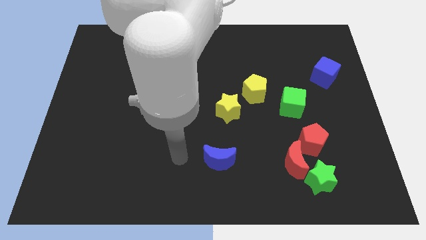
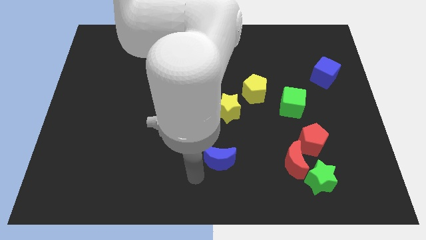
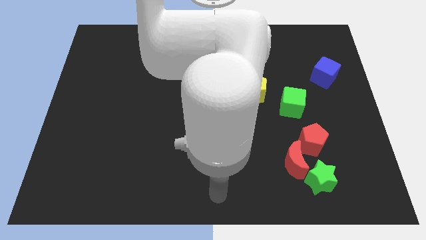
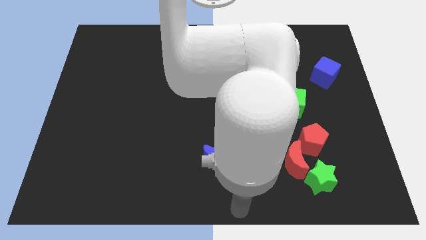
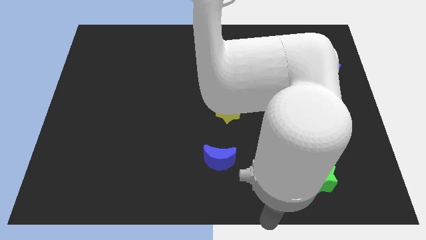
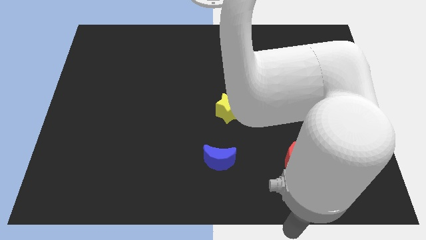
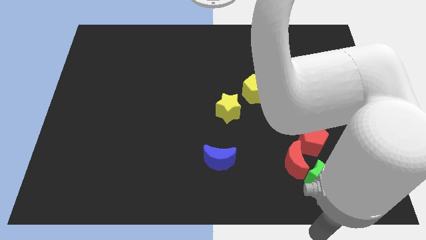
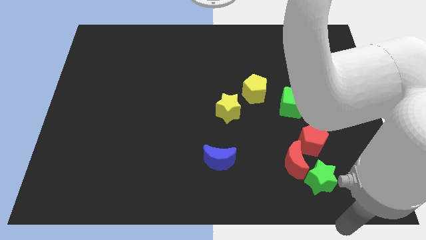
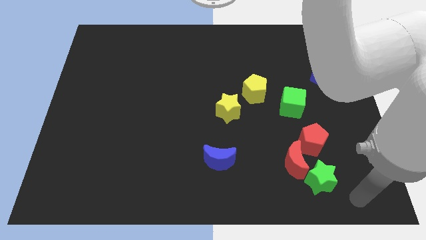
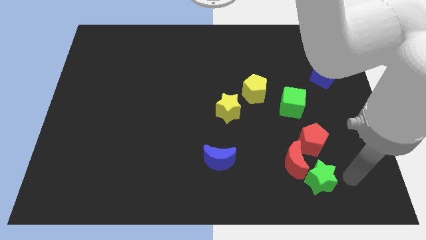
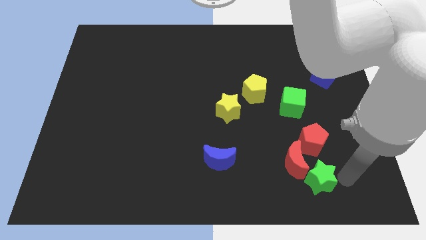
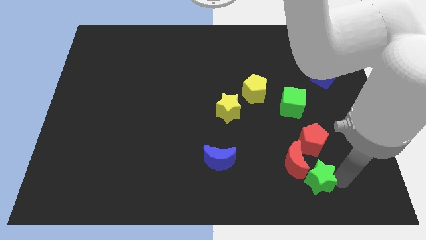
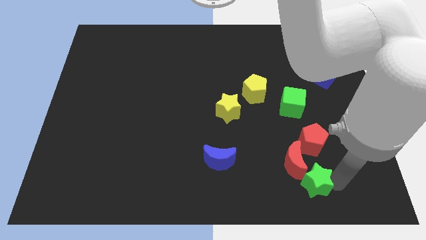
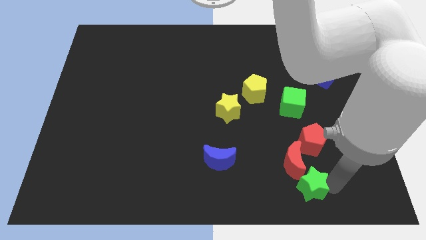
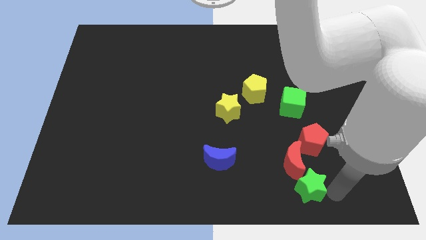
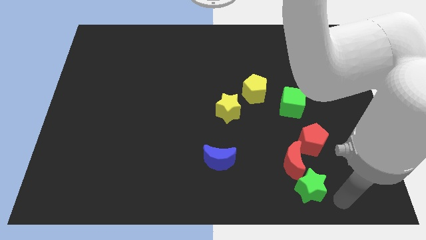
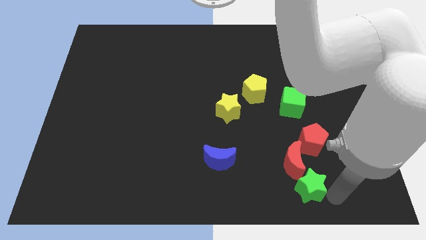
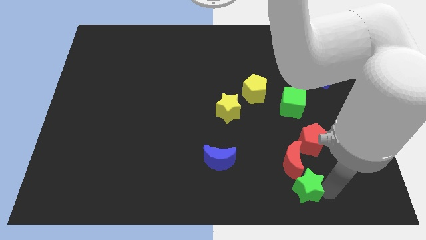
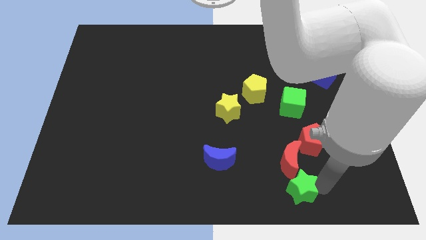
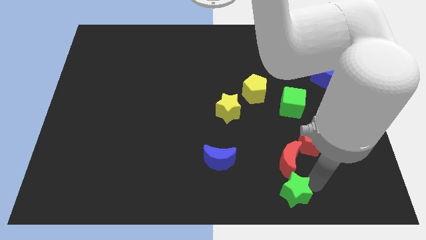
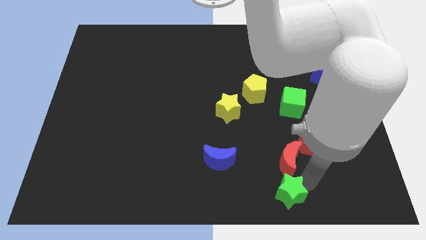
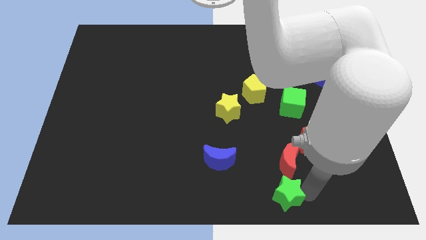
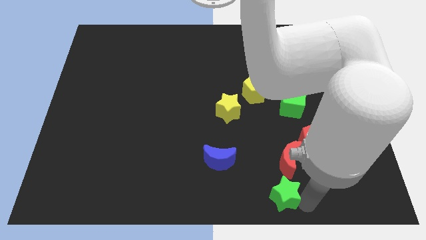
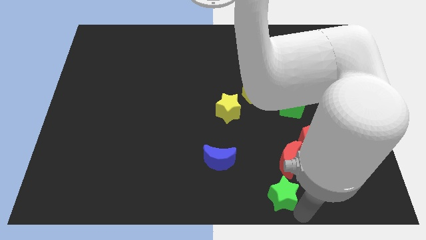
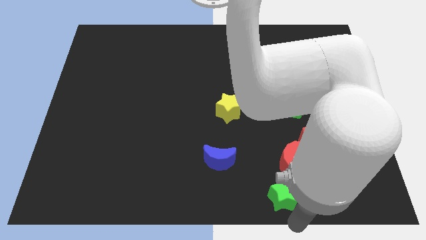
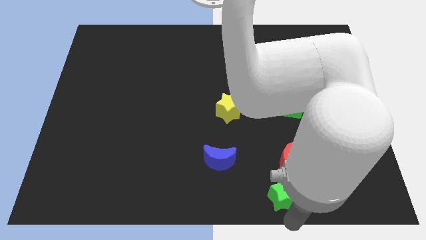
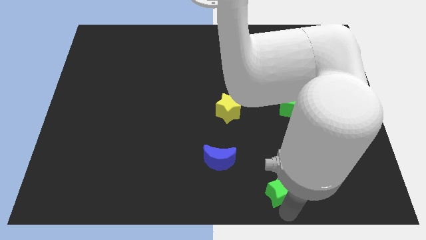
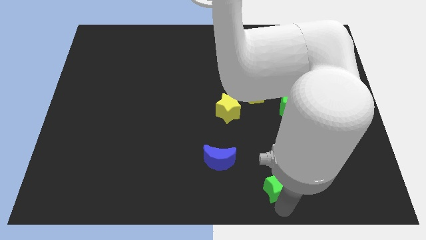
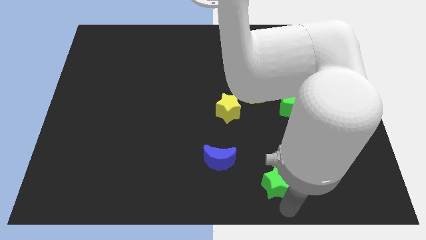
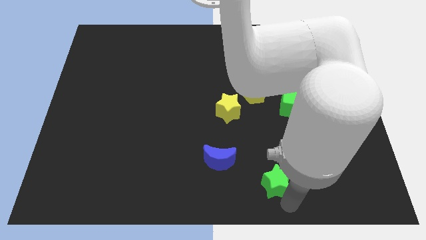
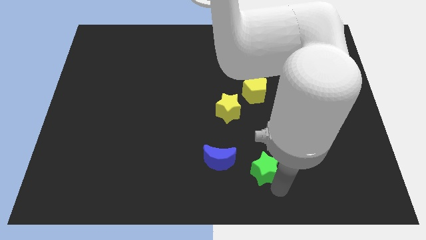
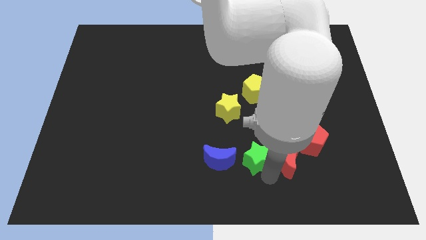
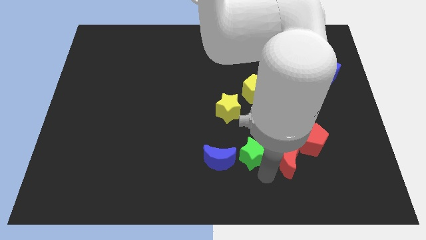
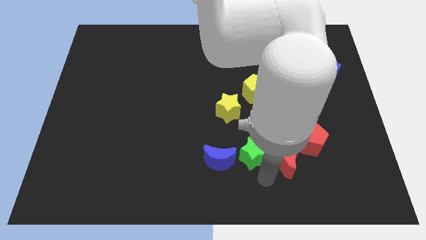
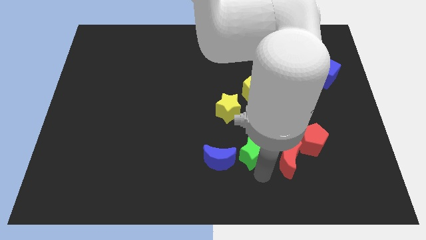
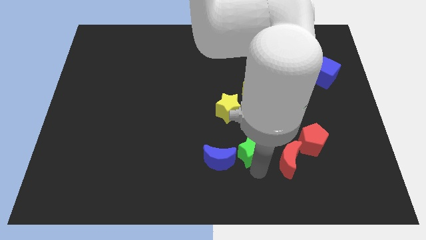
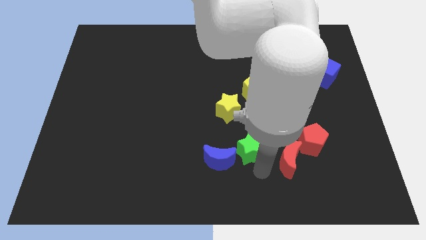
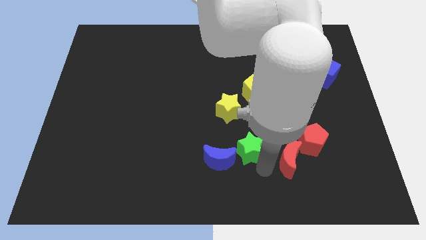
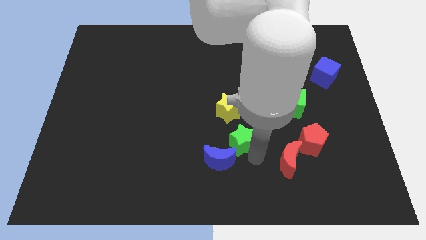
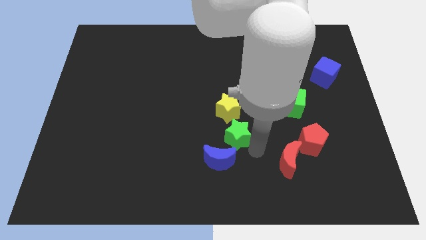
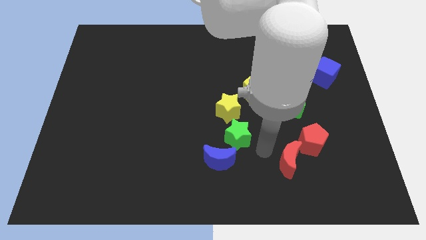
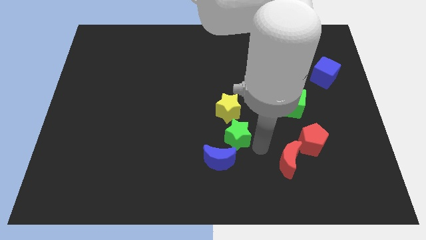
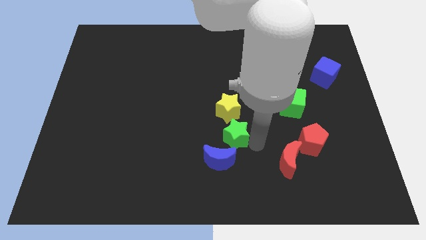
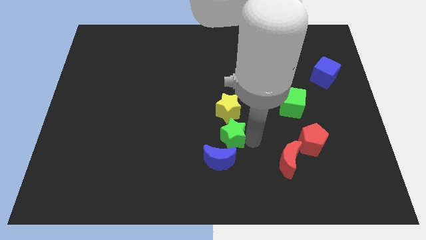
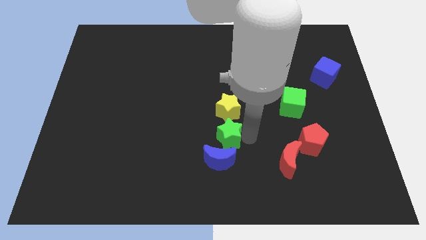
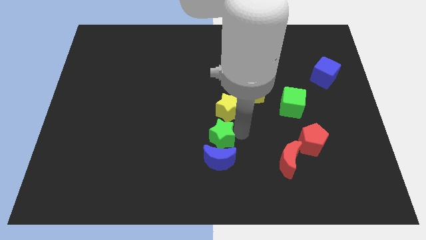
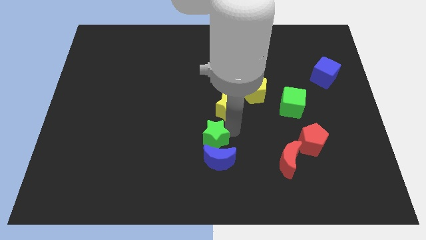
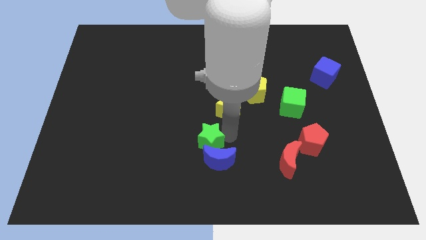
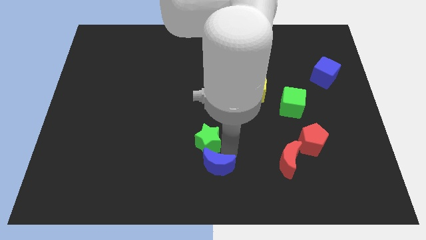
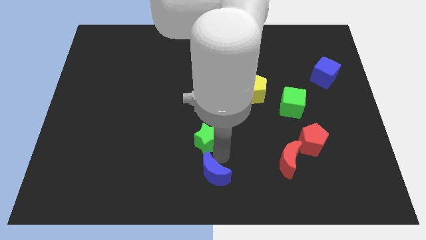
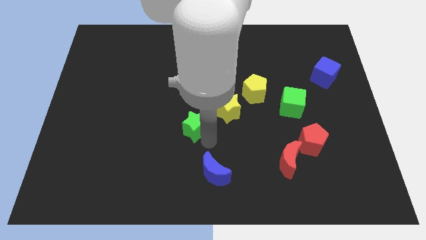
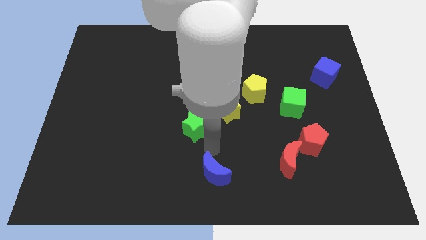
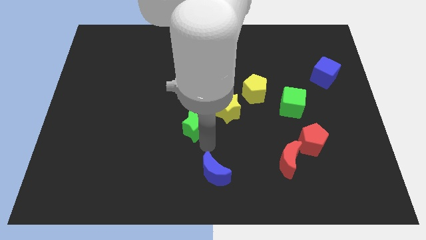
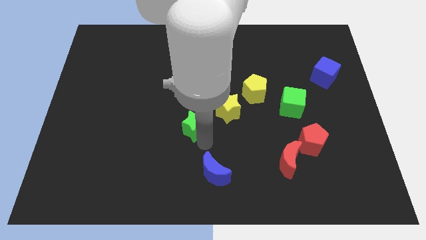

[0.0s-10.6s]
slide the green star left of the yellow star

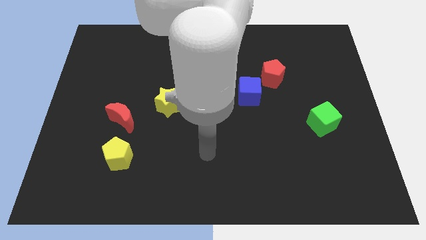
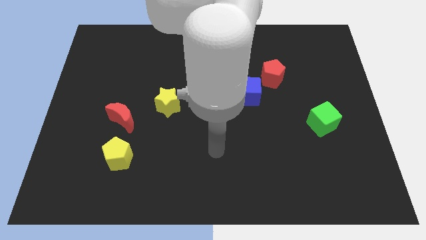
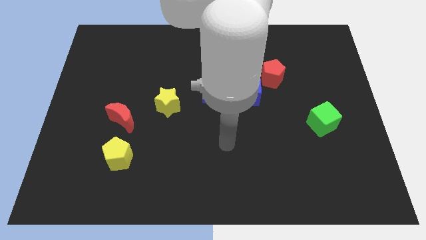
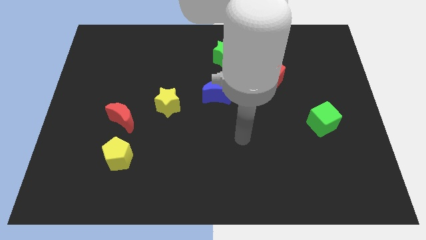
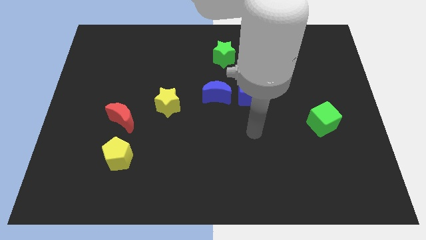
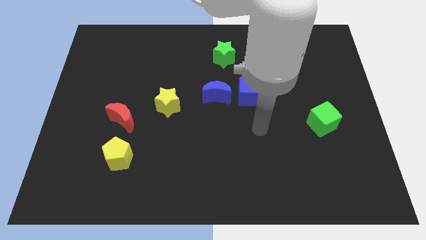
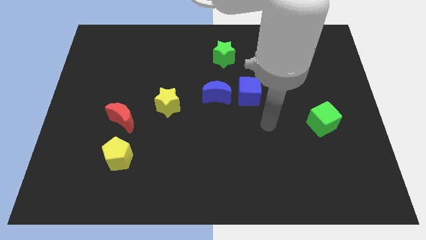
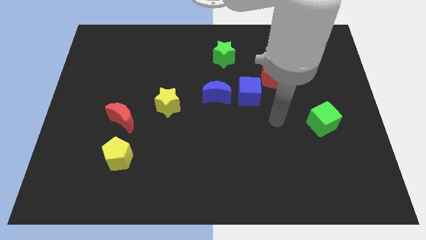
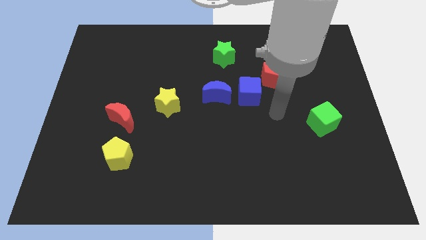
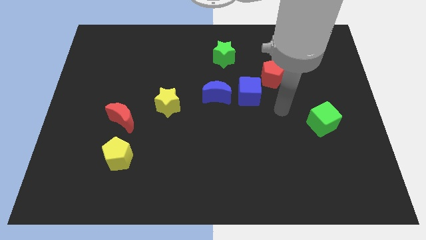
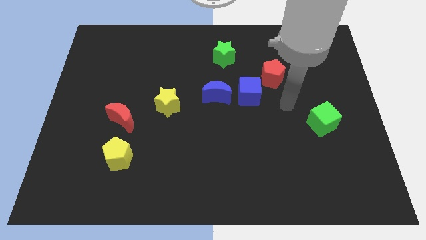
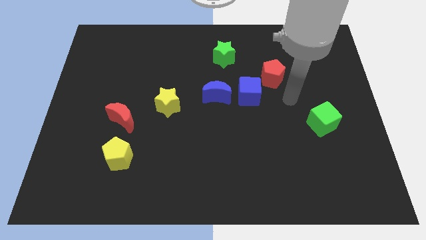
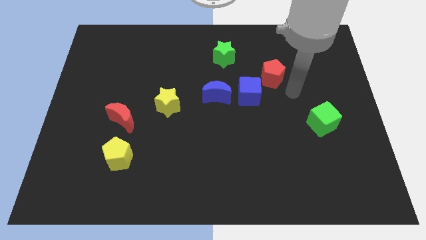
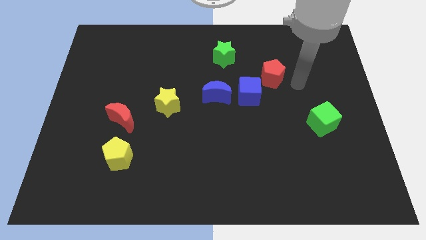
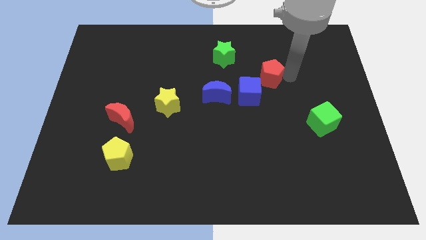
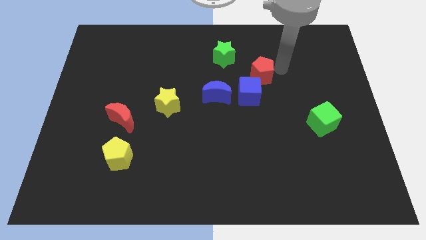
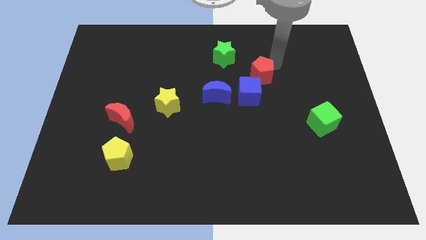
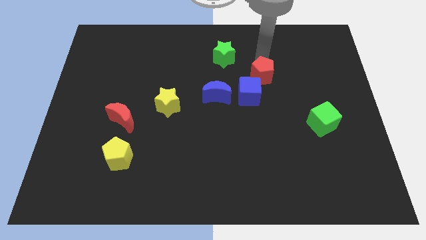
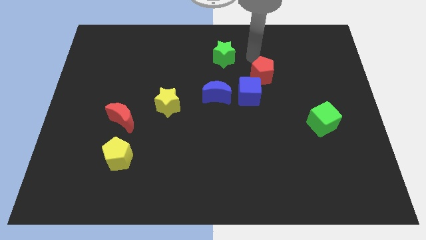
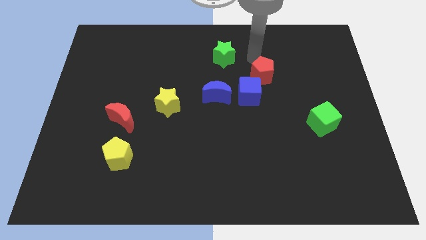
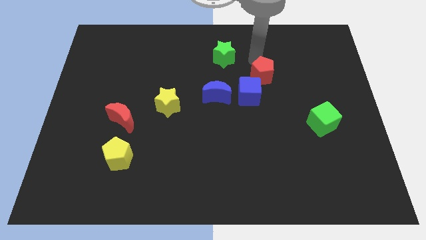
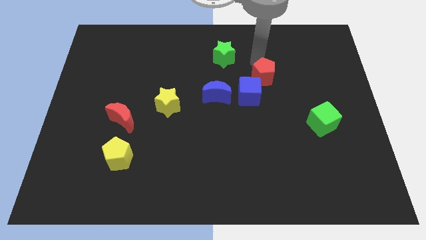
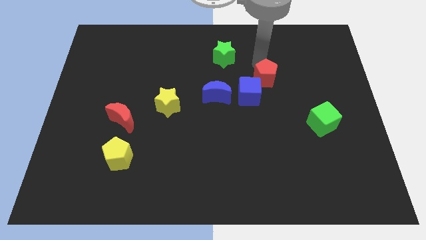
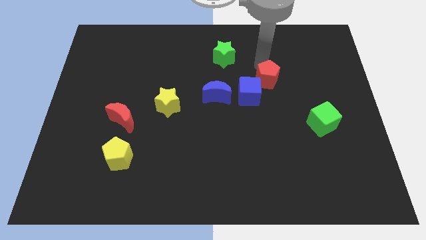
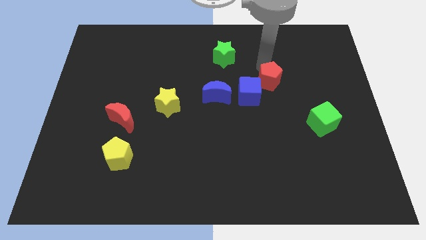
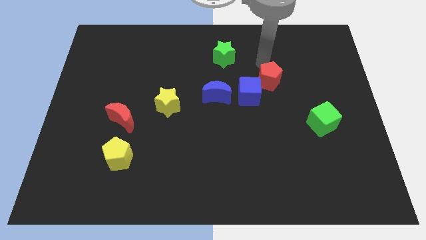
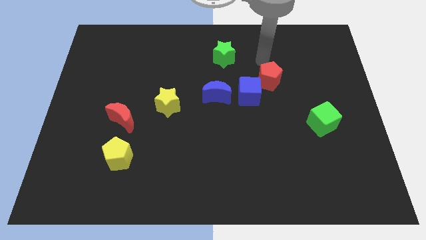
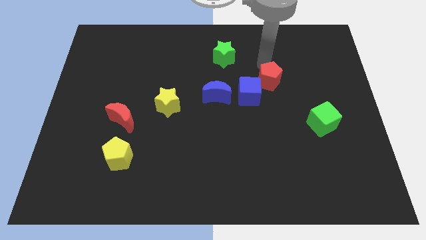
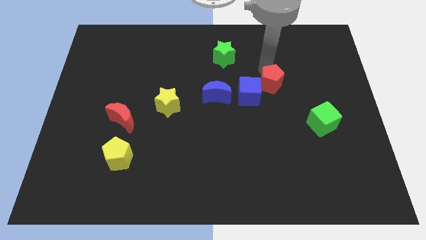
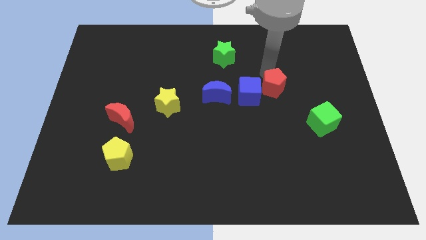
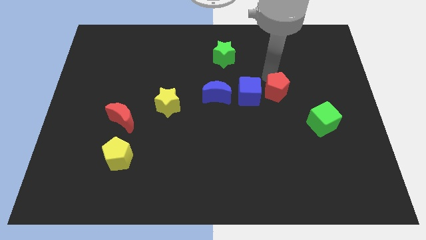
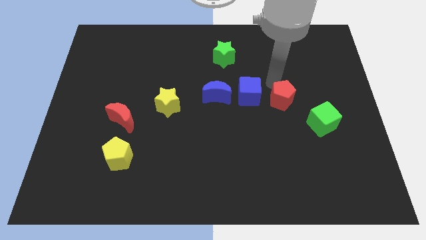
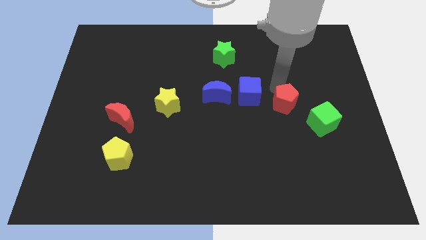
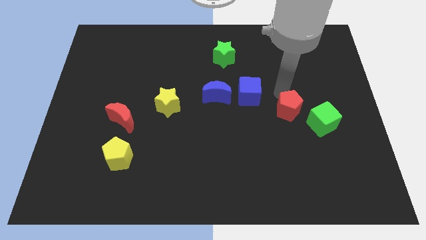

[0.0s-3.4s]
move the red pentagon left of the green cube
